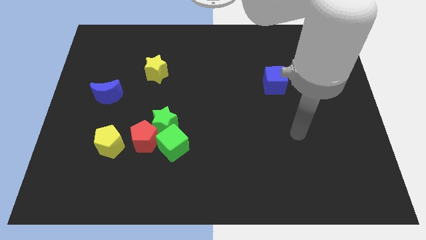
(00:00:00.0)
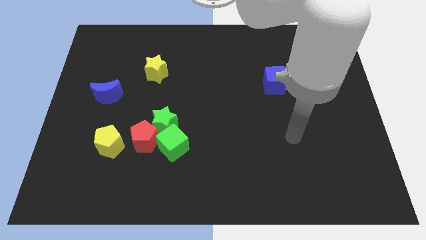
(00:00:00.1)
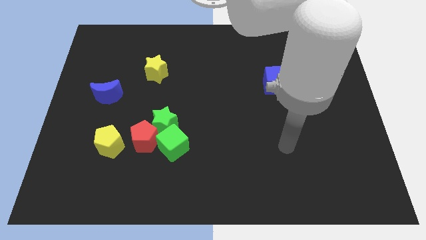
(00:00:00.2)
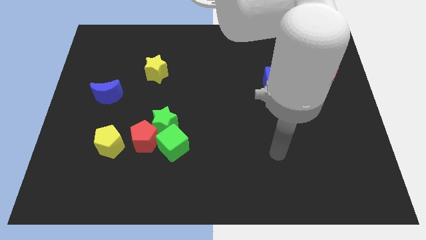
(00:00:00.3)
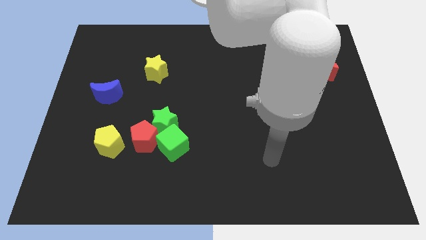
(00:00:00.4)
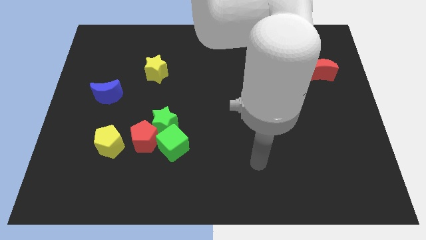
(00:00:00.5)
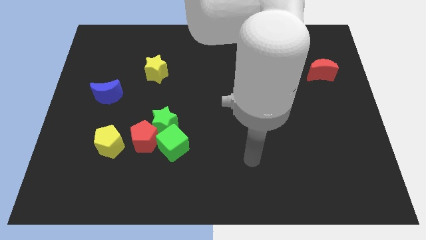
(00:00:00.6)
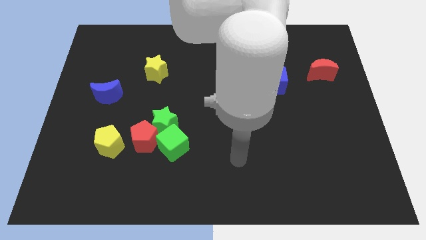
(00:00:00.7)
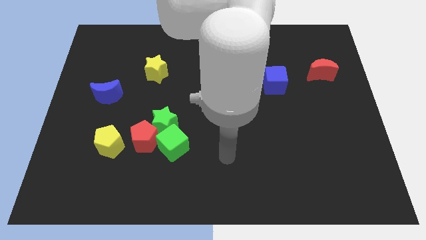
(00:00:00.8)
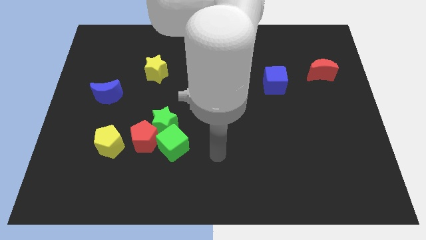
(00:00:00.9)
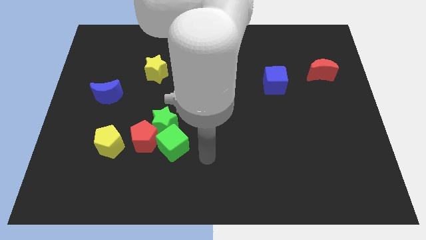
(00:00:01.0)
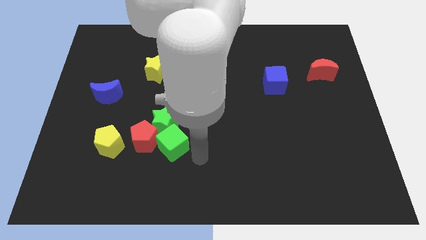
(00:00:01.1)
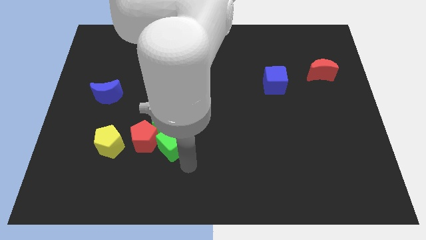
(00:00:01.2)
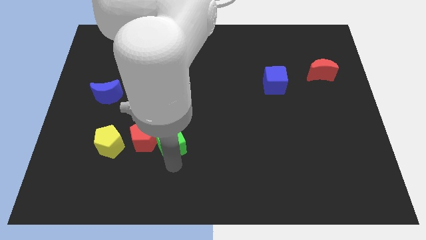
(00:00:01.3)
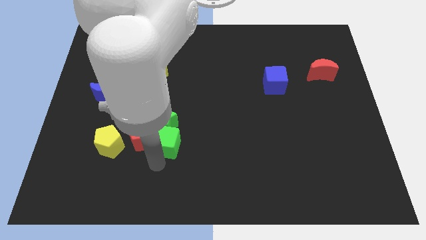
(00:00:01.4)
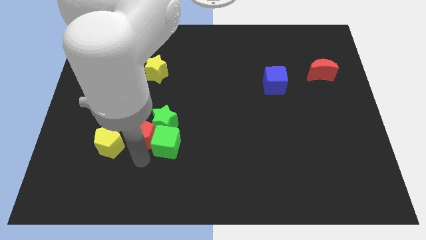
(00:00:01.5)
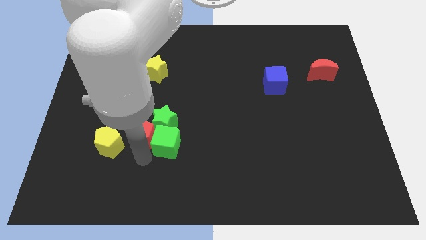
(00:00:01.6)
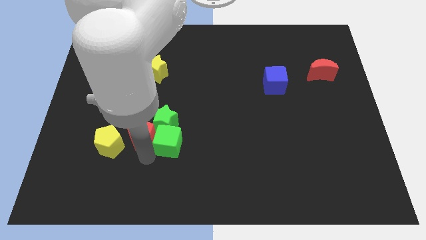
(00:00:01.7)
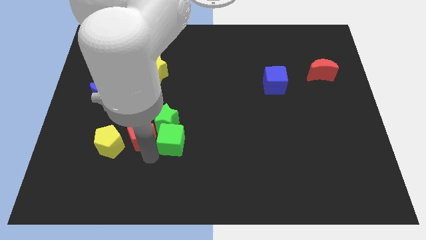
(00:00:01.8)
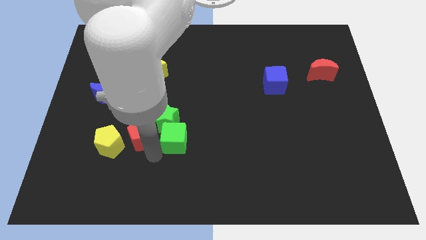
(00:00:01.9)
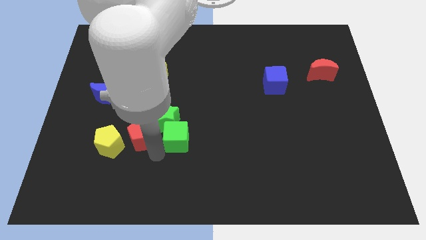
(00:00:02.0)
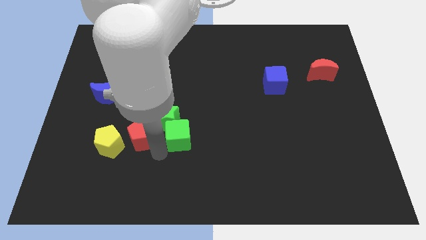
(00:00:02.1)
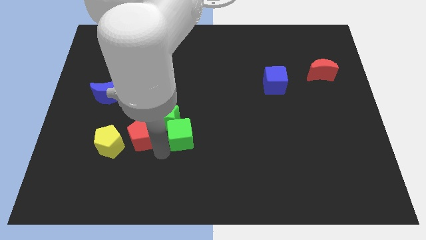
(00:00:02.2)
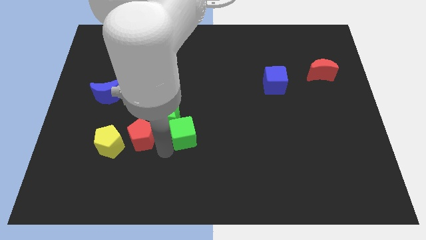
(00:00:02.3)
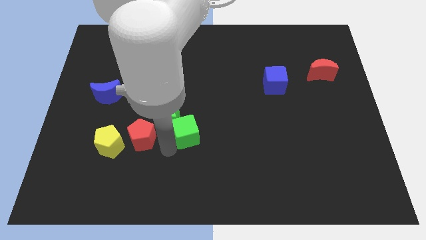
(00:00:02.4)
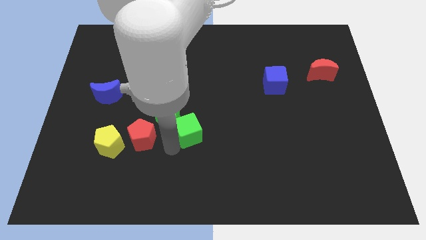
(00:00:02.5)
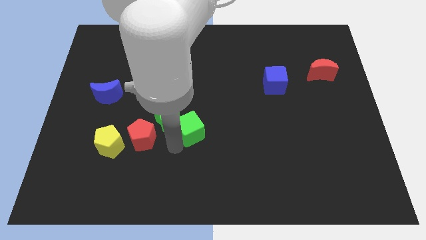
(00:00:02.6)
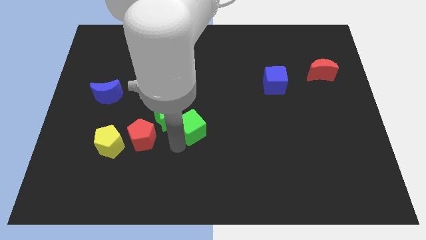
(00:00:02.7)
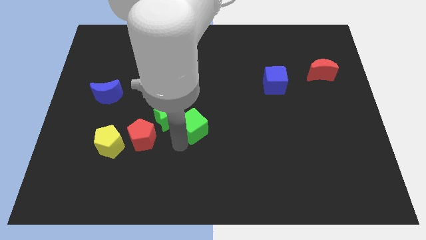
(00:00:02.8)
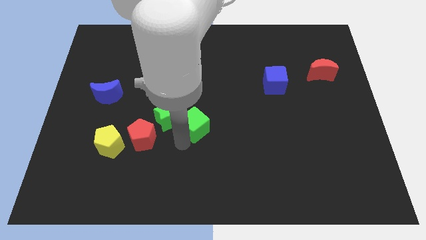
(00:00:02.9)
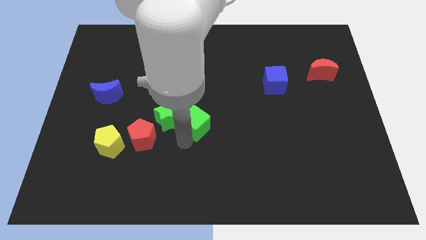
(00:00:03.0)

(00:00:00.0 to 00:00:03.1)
slightly move the green cube diagonally upwards and to the right

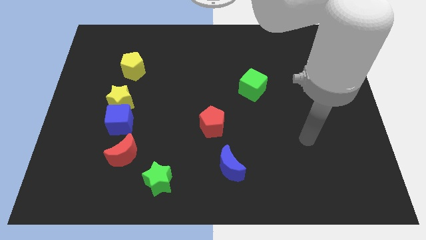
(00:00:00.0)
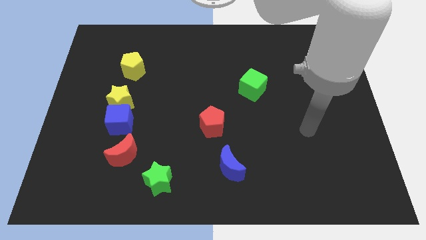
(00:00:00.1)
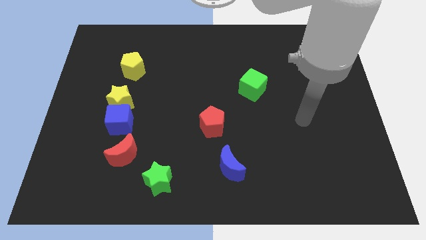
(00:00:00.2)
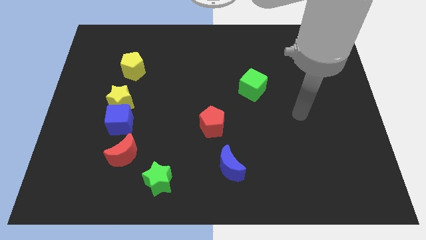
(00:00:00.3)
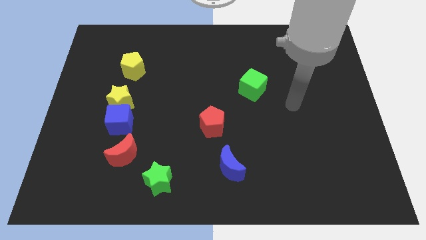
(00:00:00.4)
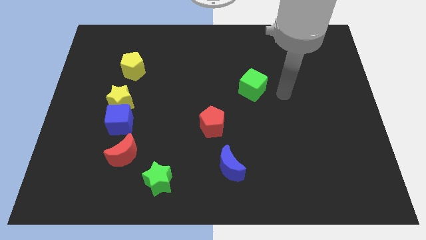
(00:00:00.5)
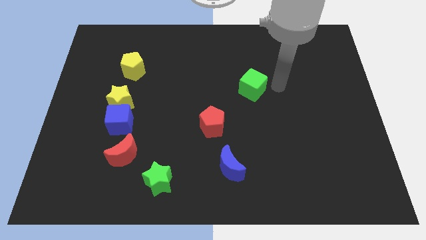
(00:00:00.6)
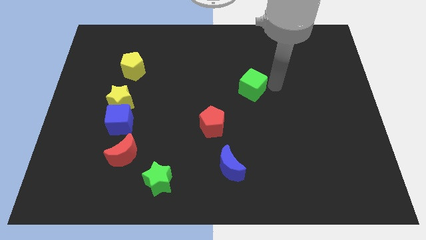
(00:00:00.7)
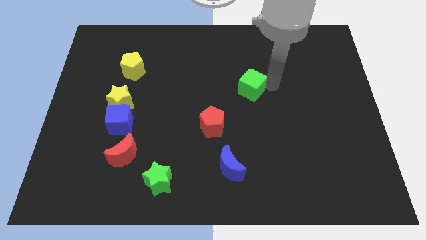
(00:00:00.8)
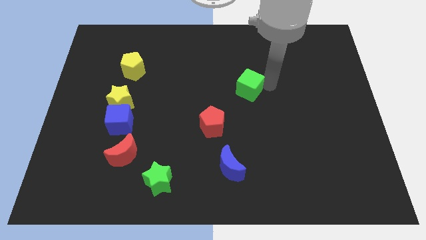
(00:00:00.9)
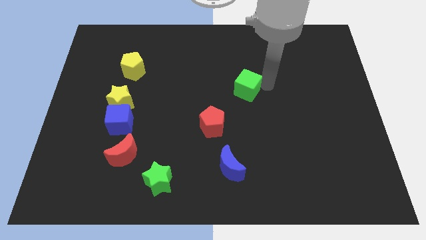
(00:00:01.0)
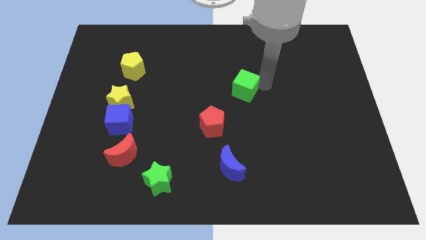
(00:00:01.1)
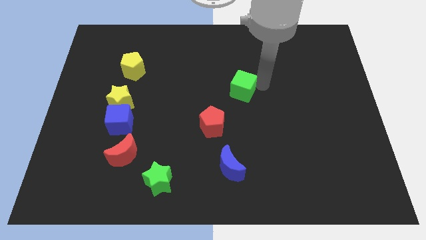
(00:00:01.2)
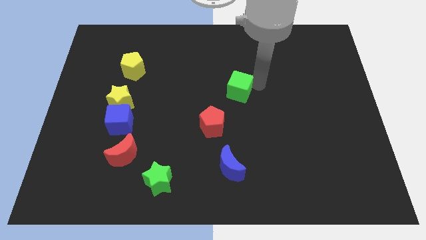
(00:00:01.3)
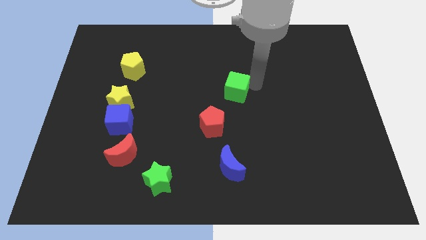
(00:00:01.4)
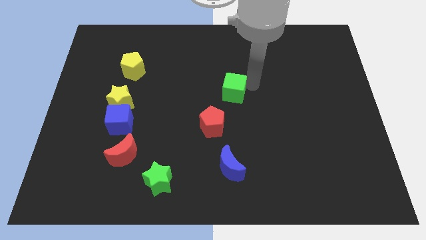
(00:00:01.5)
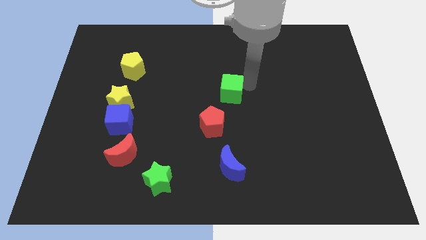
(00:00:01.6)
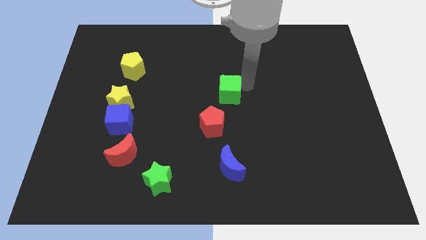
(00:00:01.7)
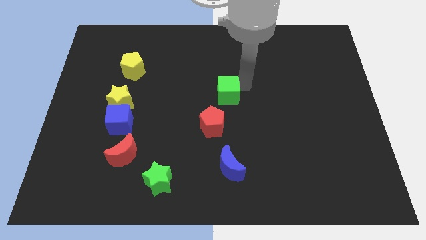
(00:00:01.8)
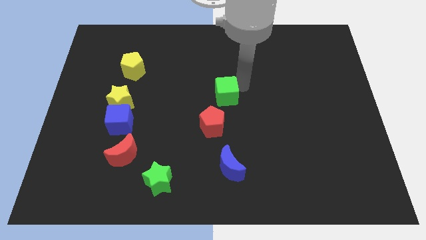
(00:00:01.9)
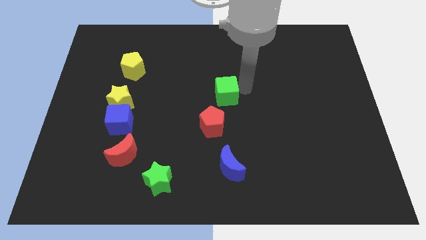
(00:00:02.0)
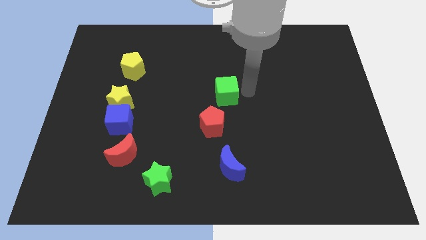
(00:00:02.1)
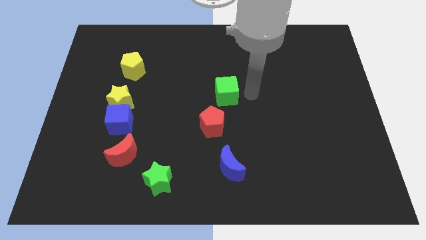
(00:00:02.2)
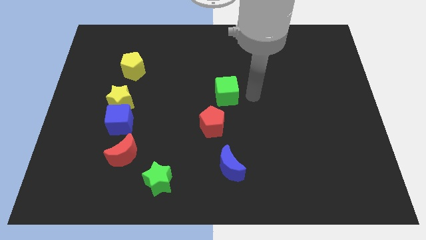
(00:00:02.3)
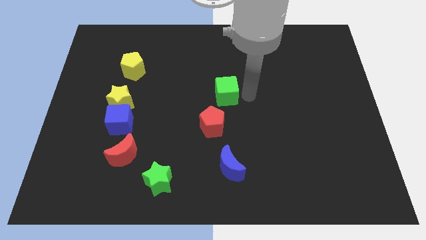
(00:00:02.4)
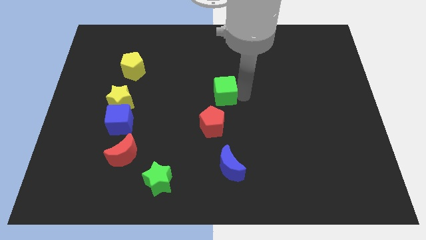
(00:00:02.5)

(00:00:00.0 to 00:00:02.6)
slide the green cube to the left somewhat

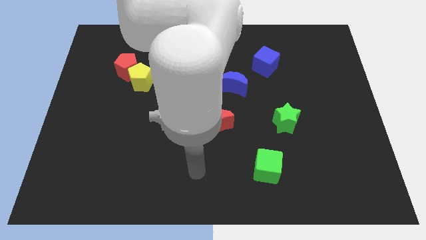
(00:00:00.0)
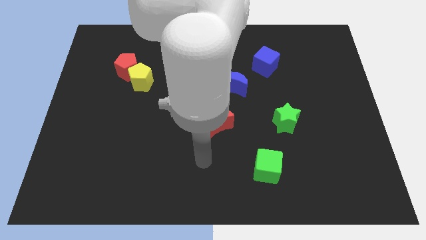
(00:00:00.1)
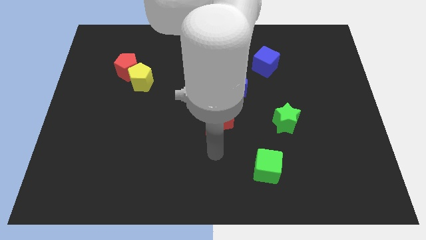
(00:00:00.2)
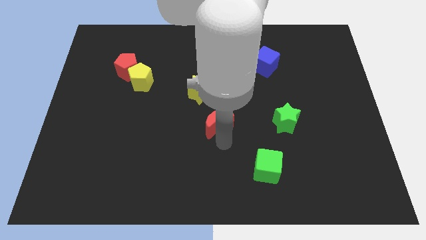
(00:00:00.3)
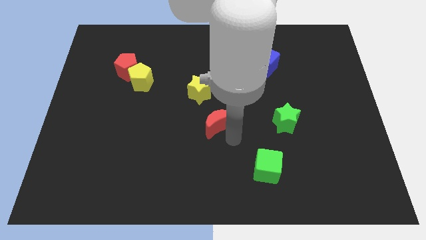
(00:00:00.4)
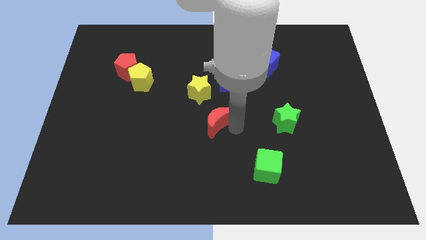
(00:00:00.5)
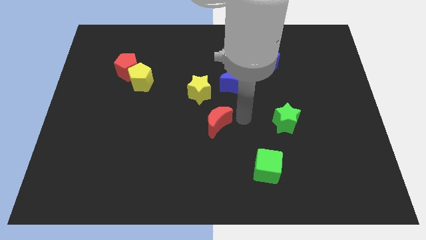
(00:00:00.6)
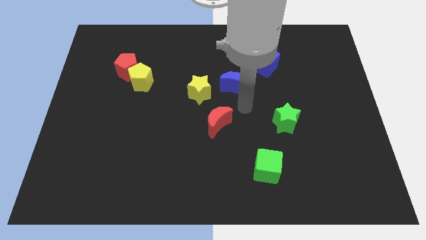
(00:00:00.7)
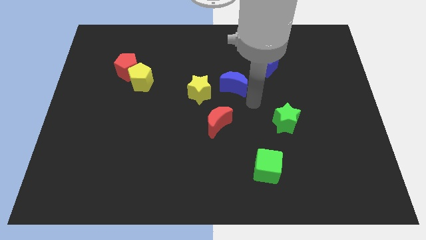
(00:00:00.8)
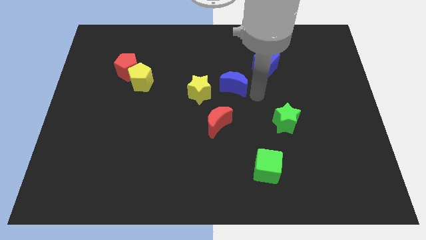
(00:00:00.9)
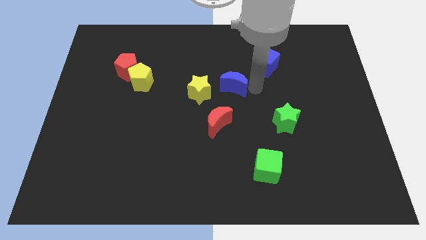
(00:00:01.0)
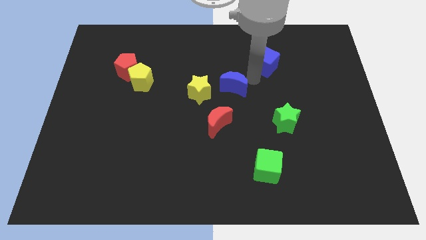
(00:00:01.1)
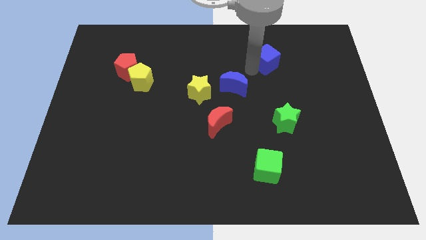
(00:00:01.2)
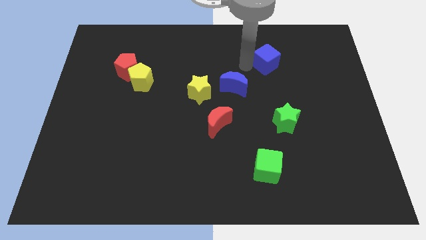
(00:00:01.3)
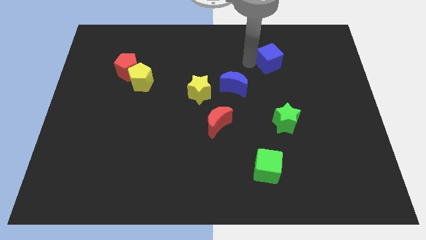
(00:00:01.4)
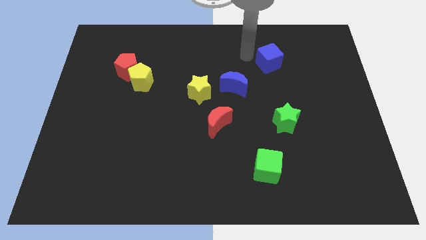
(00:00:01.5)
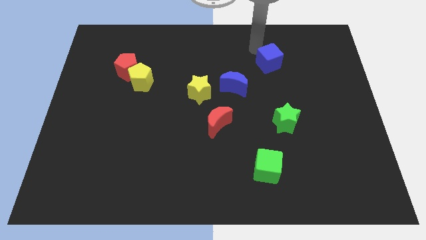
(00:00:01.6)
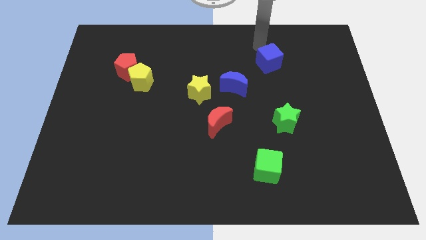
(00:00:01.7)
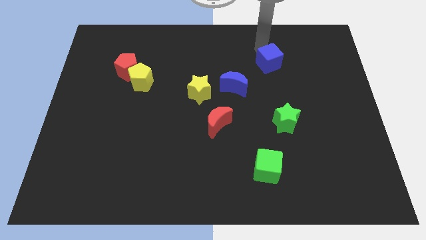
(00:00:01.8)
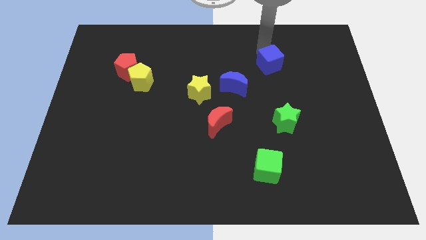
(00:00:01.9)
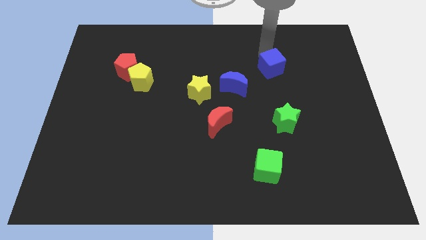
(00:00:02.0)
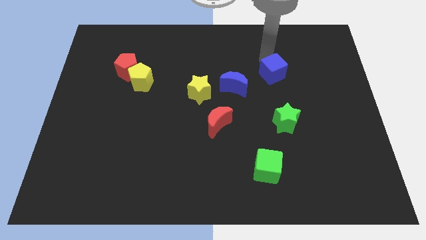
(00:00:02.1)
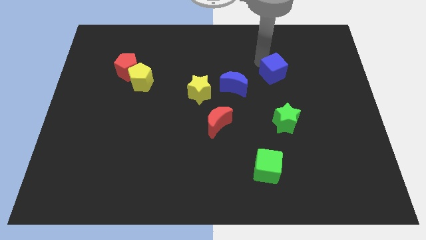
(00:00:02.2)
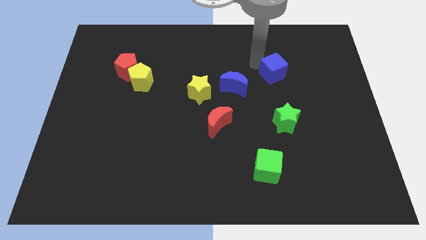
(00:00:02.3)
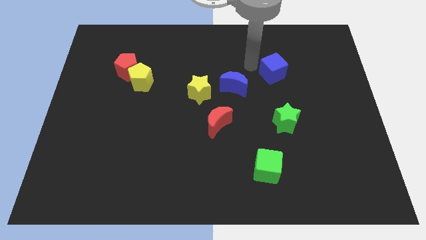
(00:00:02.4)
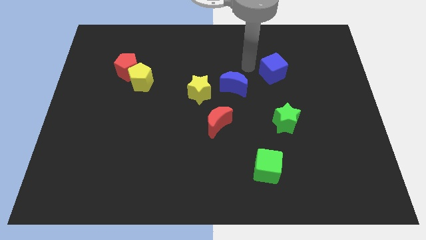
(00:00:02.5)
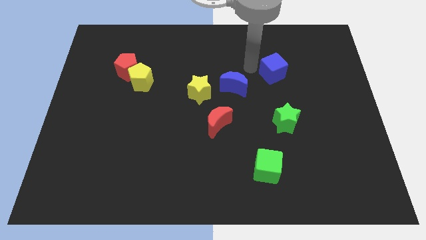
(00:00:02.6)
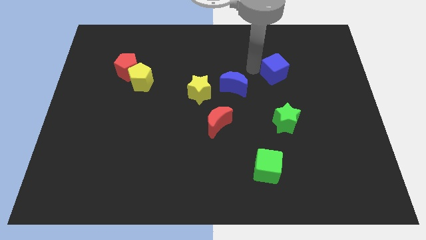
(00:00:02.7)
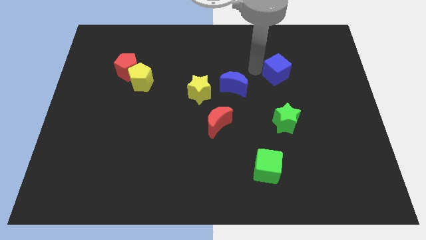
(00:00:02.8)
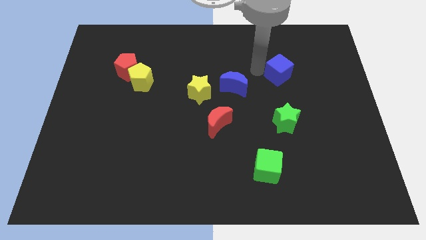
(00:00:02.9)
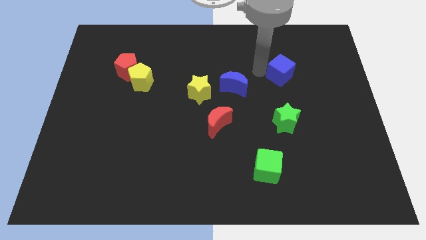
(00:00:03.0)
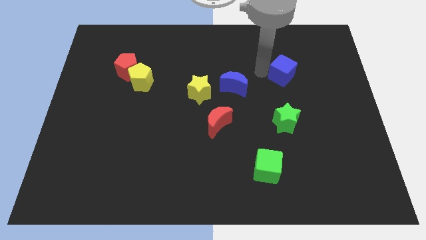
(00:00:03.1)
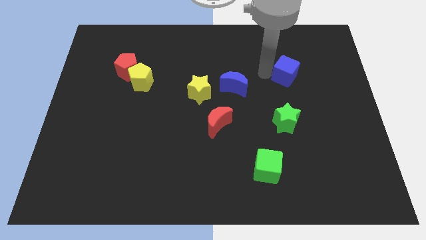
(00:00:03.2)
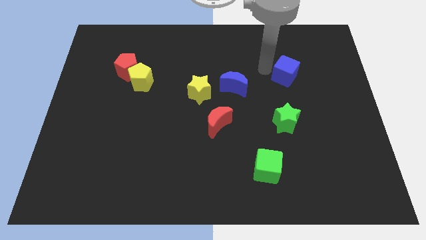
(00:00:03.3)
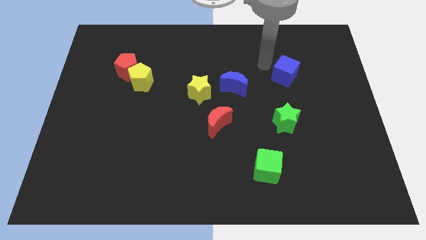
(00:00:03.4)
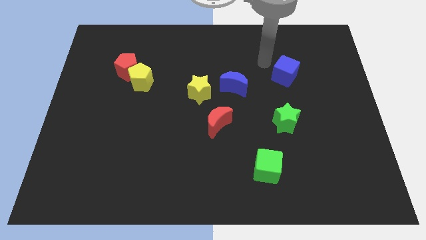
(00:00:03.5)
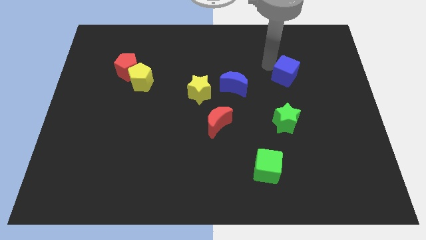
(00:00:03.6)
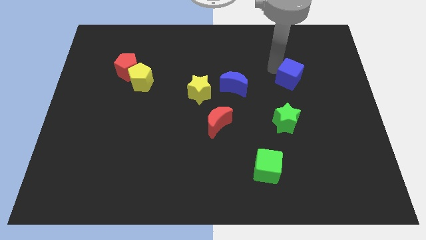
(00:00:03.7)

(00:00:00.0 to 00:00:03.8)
move the blue cube down and then right a little
